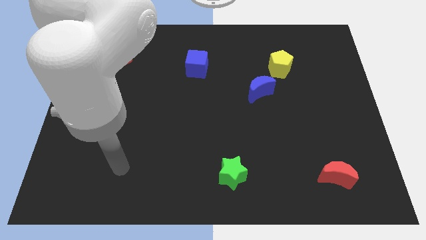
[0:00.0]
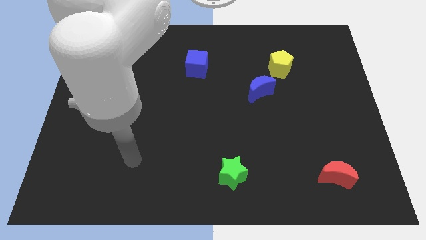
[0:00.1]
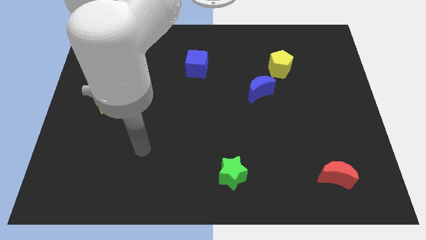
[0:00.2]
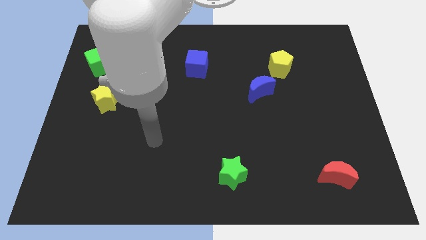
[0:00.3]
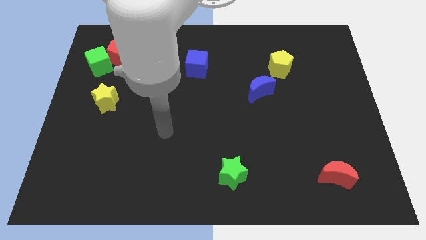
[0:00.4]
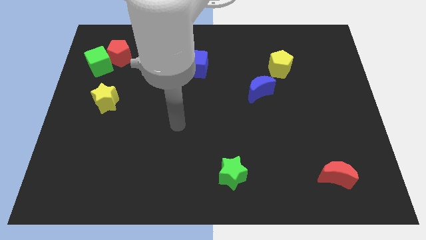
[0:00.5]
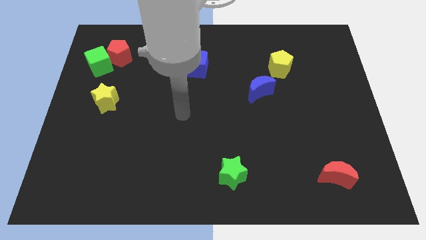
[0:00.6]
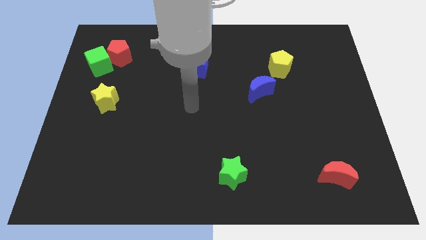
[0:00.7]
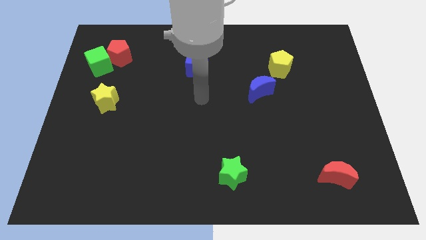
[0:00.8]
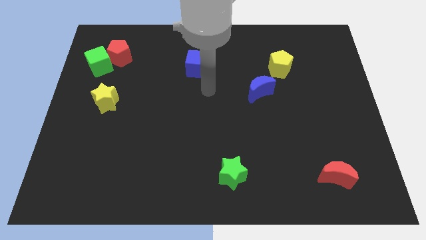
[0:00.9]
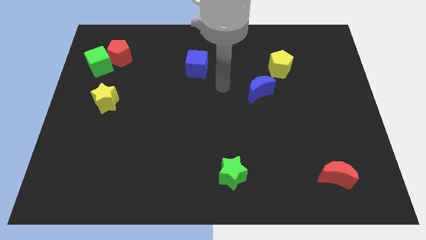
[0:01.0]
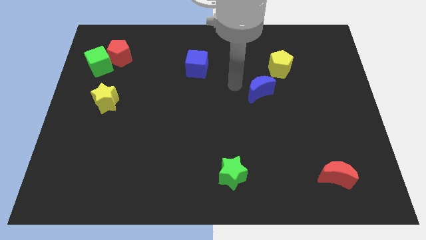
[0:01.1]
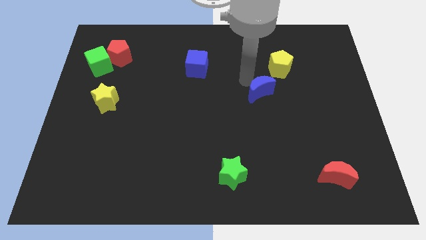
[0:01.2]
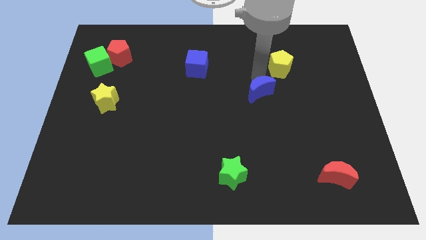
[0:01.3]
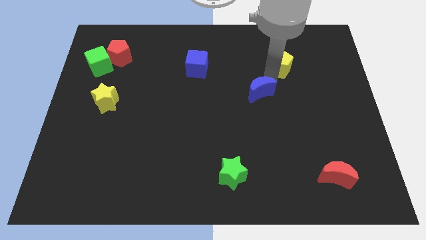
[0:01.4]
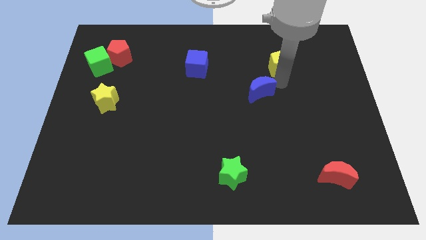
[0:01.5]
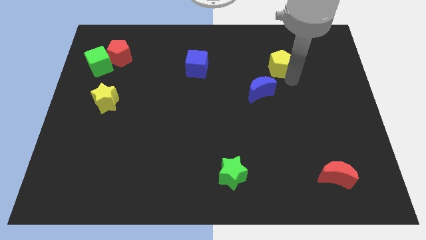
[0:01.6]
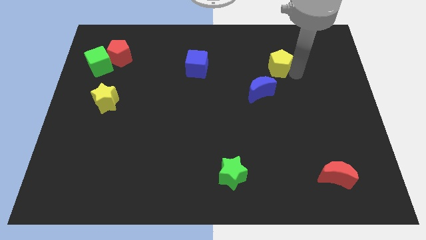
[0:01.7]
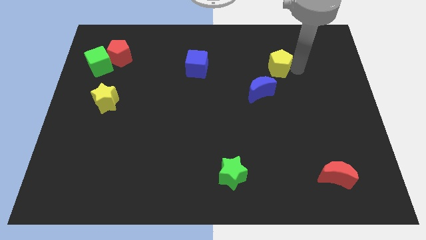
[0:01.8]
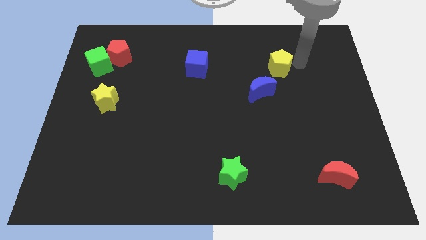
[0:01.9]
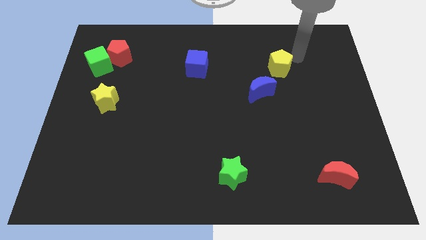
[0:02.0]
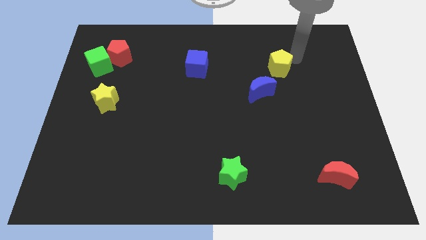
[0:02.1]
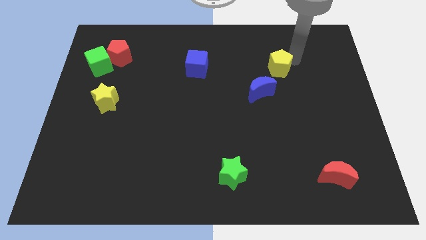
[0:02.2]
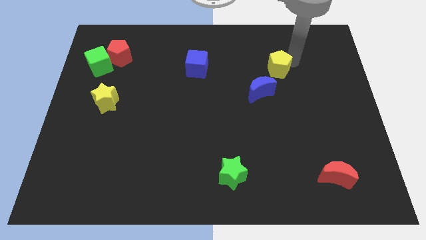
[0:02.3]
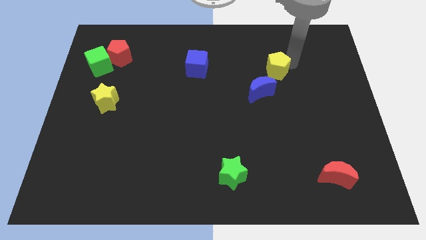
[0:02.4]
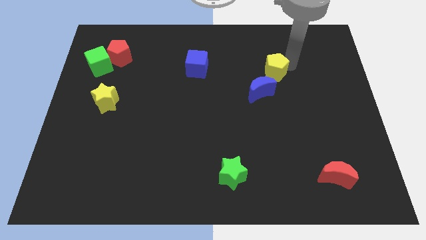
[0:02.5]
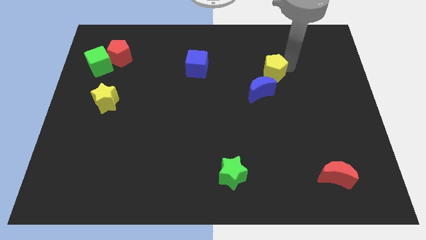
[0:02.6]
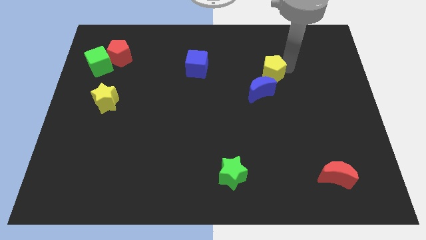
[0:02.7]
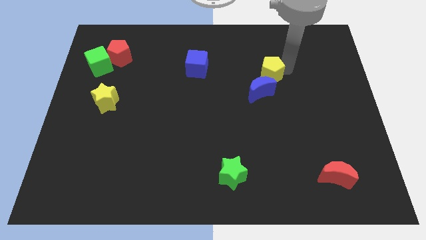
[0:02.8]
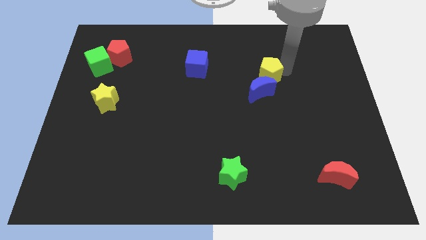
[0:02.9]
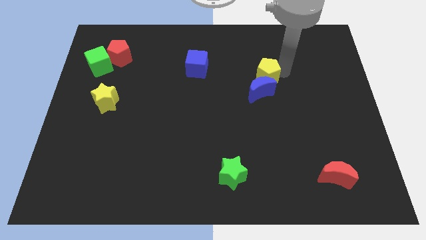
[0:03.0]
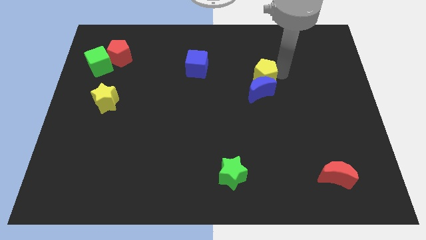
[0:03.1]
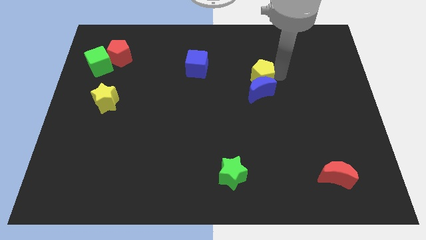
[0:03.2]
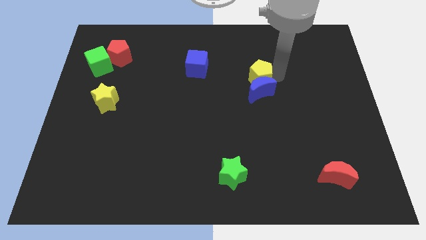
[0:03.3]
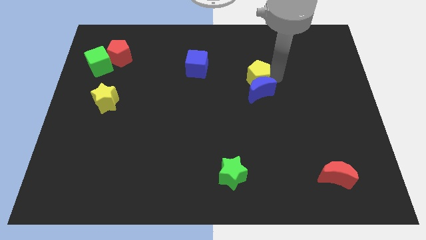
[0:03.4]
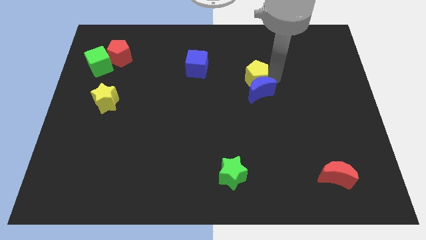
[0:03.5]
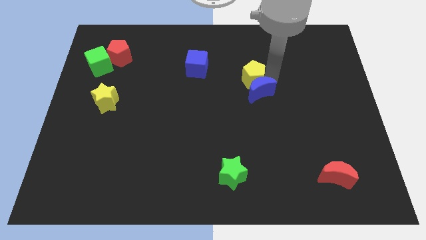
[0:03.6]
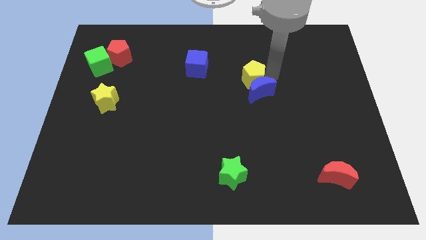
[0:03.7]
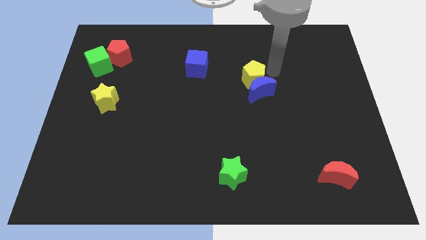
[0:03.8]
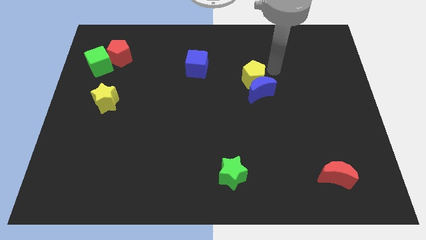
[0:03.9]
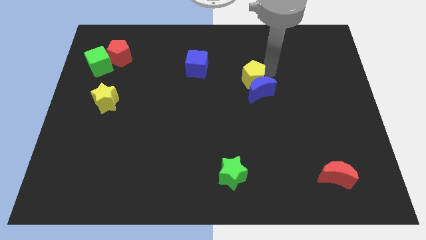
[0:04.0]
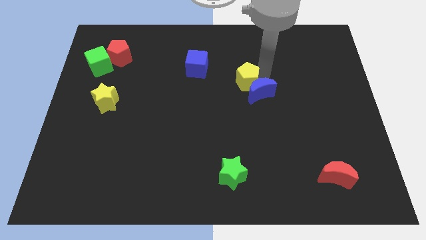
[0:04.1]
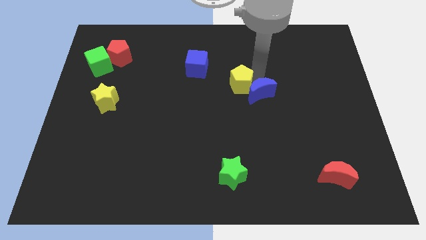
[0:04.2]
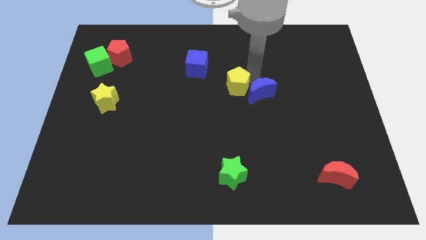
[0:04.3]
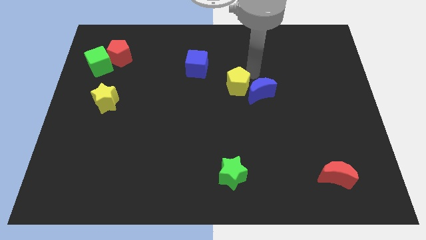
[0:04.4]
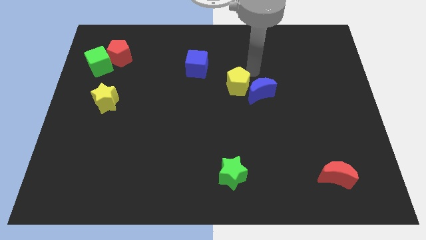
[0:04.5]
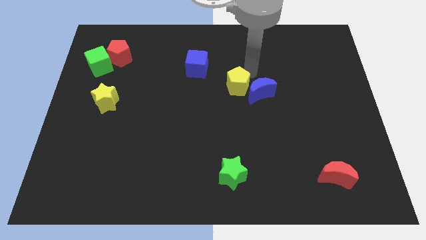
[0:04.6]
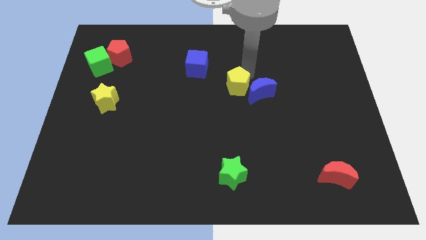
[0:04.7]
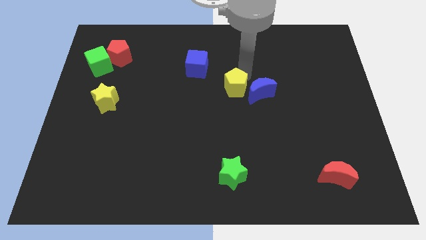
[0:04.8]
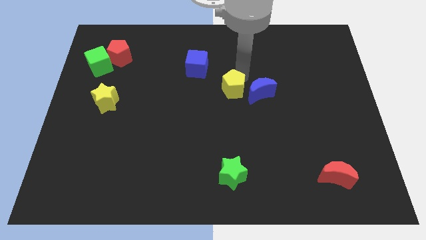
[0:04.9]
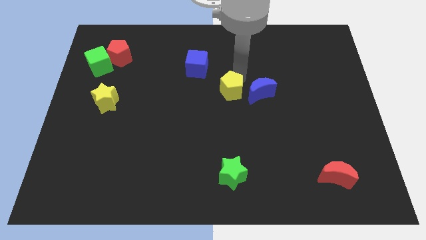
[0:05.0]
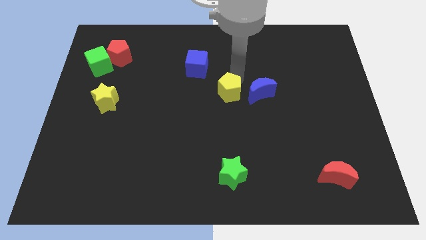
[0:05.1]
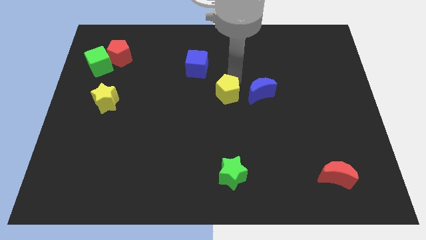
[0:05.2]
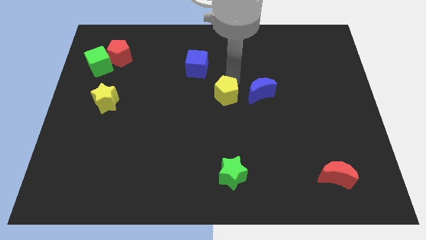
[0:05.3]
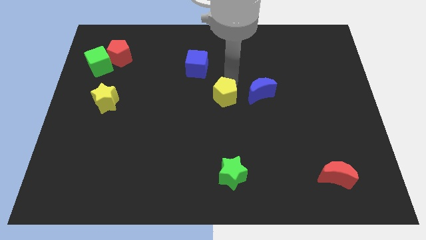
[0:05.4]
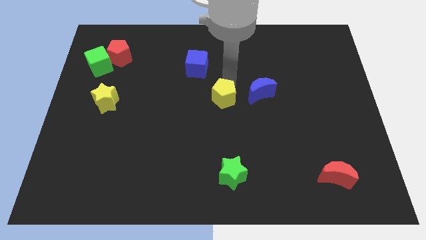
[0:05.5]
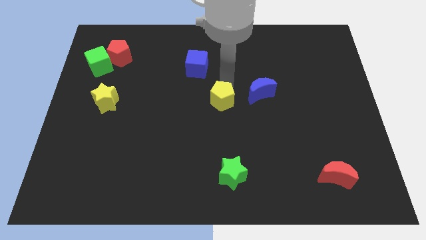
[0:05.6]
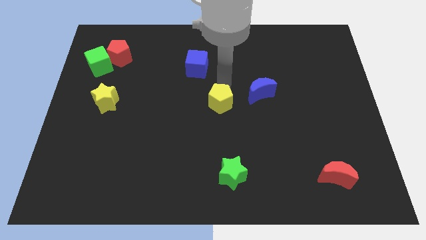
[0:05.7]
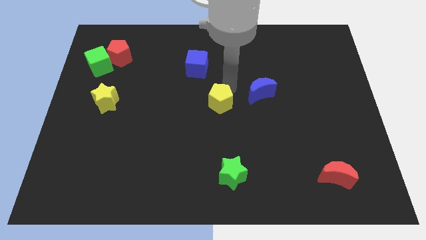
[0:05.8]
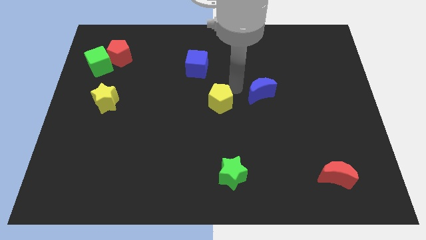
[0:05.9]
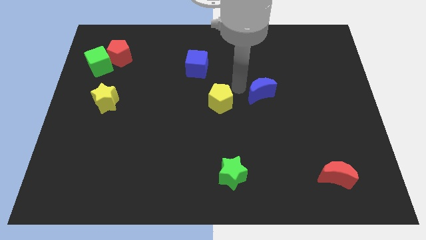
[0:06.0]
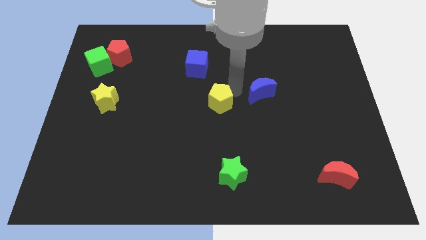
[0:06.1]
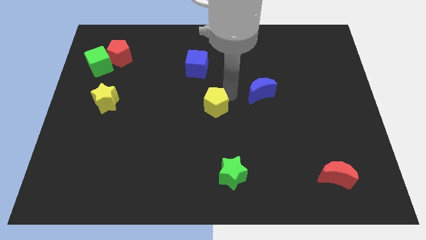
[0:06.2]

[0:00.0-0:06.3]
slide the yellow pentagon downwards and left

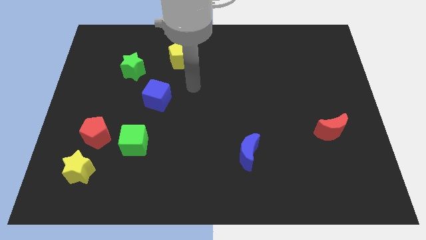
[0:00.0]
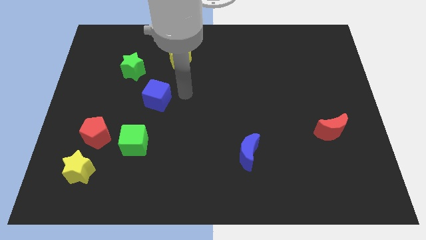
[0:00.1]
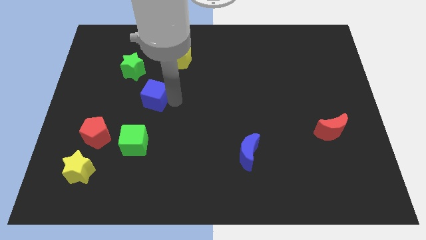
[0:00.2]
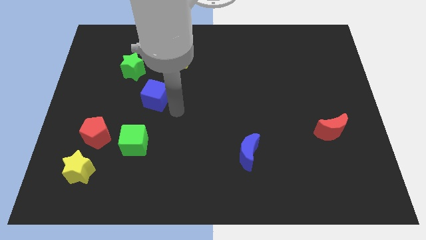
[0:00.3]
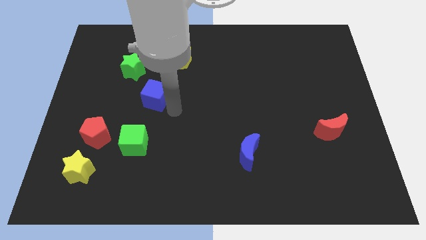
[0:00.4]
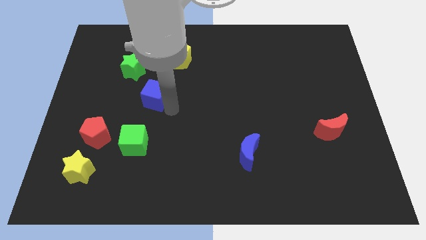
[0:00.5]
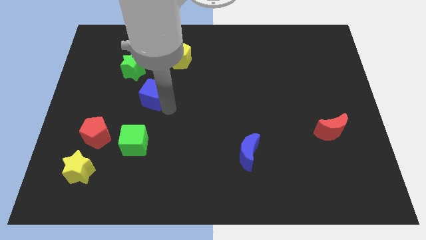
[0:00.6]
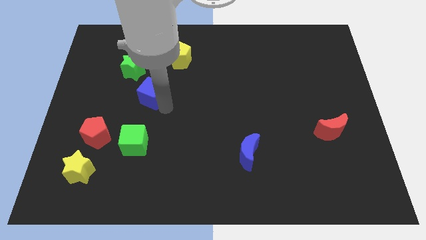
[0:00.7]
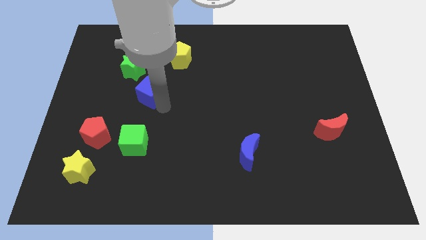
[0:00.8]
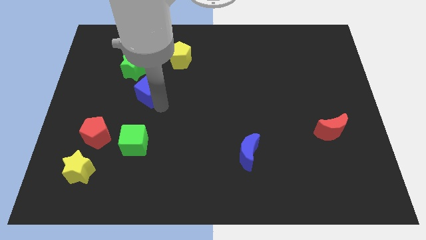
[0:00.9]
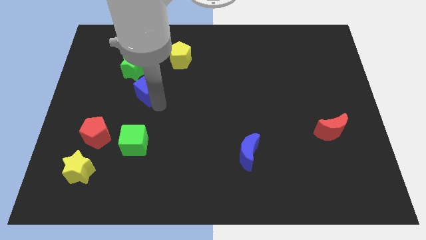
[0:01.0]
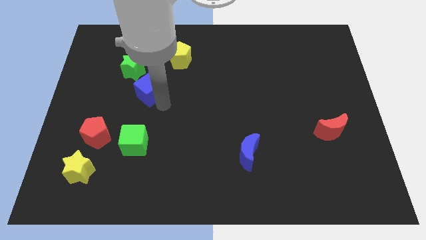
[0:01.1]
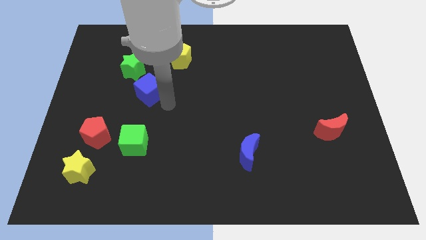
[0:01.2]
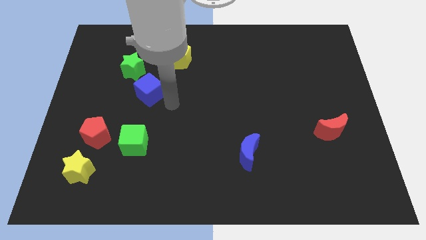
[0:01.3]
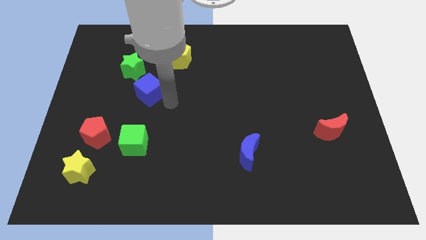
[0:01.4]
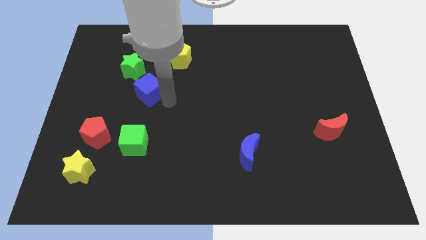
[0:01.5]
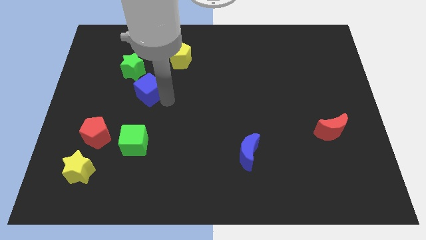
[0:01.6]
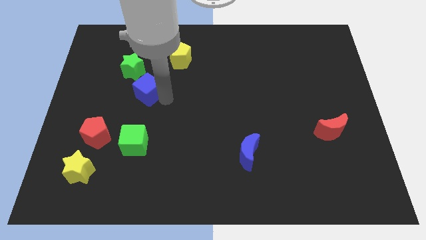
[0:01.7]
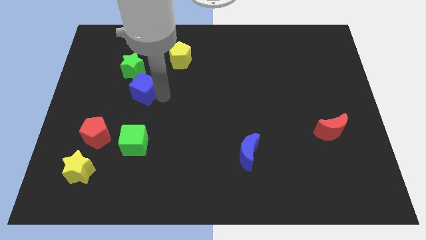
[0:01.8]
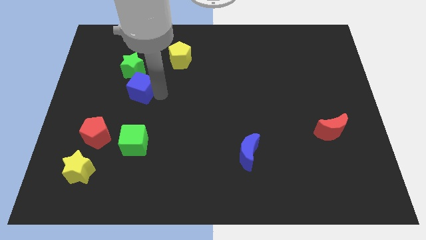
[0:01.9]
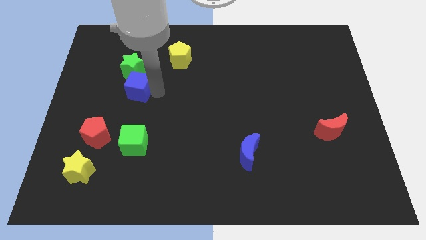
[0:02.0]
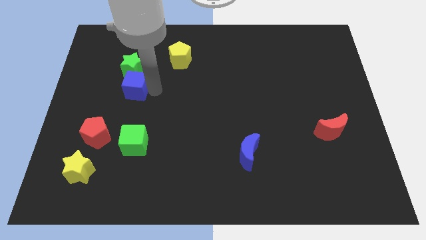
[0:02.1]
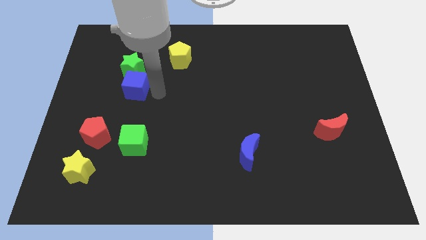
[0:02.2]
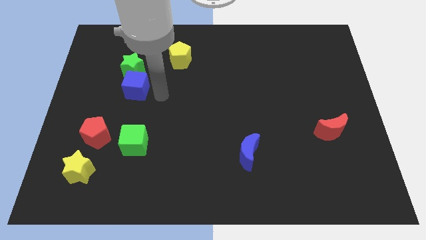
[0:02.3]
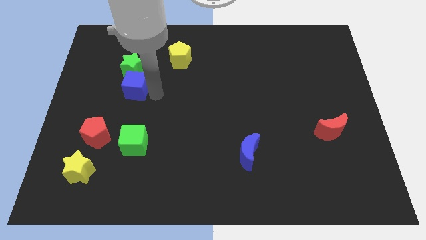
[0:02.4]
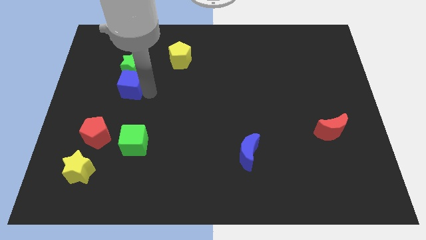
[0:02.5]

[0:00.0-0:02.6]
slightly slide the blue cube up and then to the left
